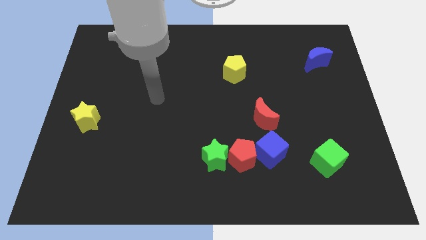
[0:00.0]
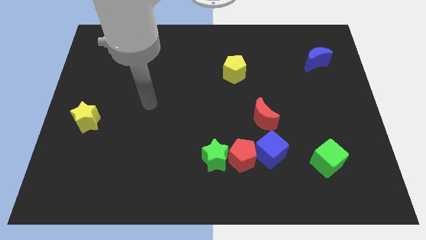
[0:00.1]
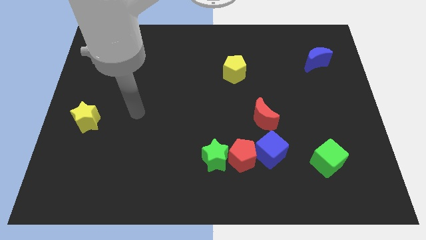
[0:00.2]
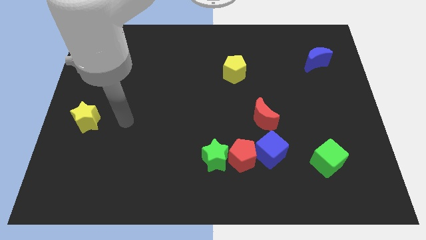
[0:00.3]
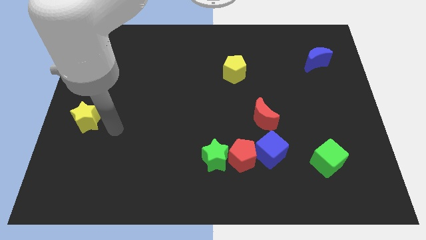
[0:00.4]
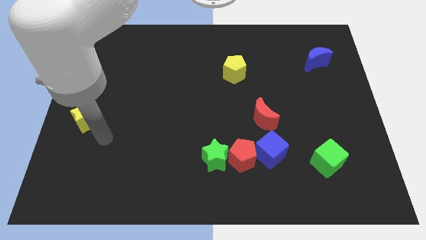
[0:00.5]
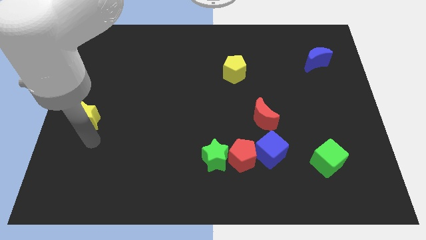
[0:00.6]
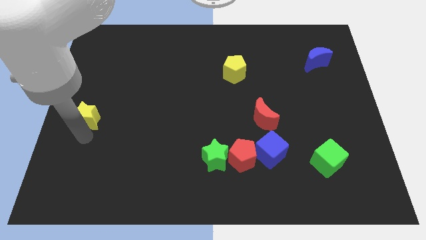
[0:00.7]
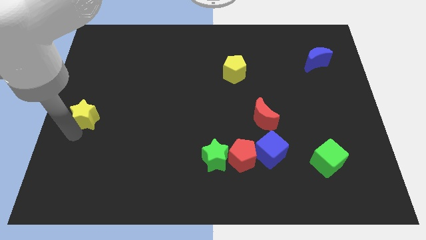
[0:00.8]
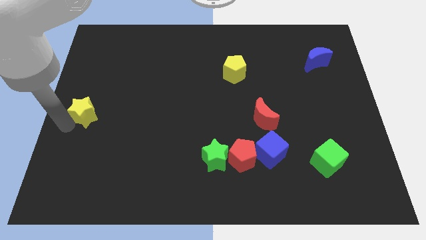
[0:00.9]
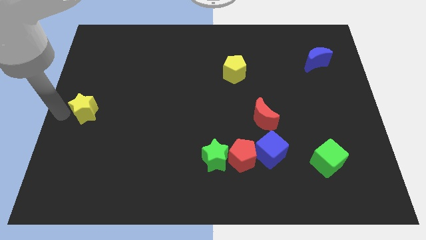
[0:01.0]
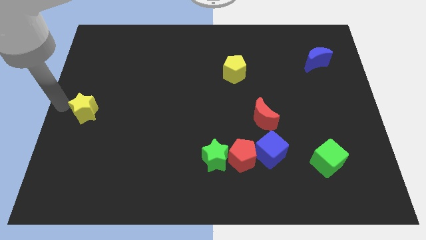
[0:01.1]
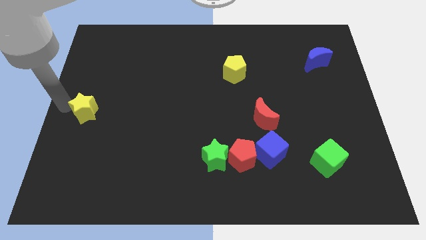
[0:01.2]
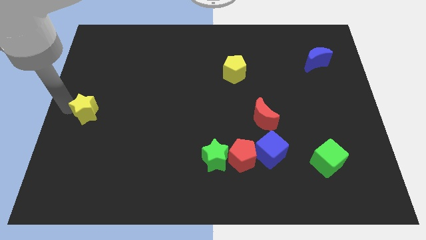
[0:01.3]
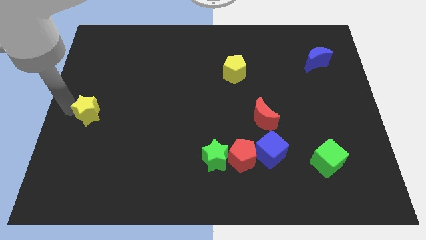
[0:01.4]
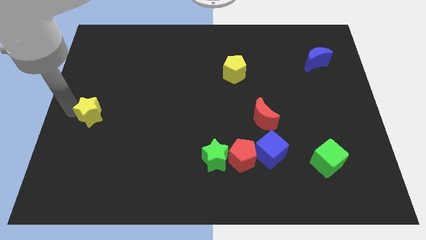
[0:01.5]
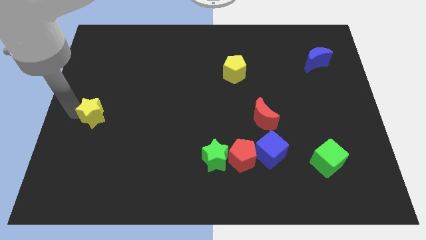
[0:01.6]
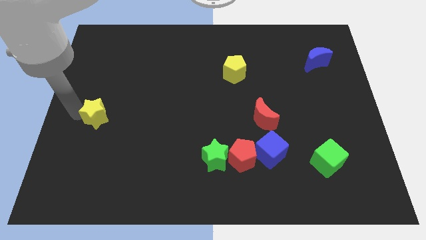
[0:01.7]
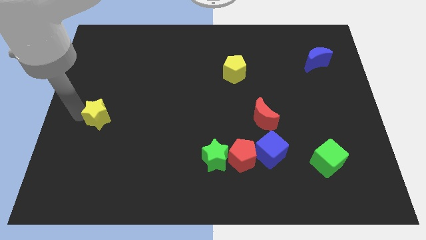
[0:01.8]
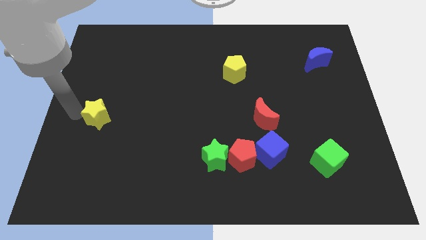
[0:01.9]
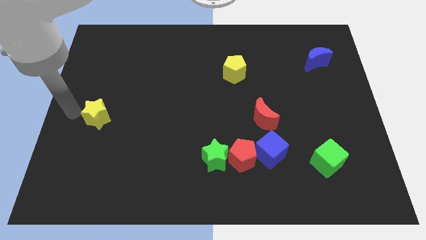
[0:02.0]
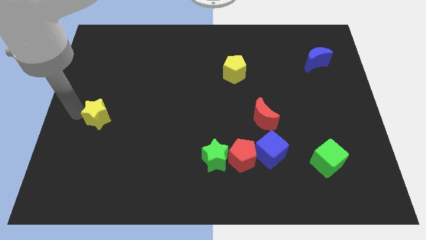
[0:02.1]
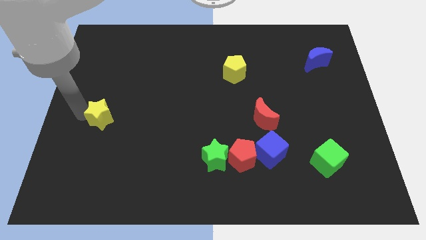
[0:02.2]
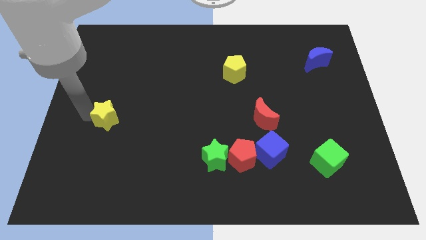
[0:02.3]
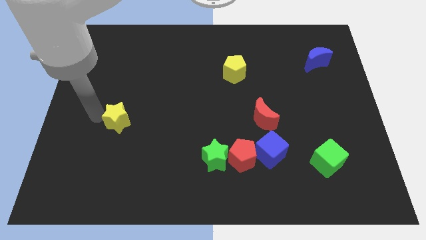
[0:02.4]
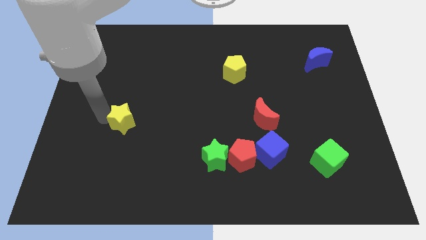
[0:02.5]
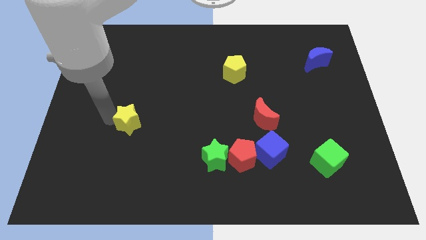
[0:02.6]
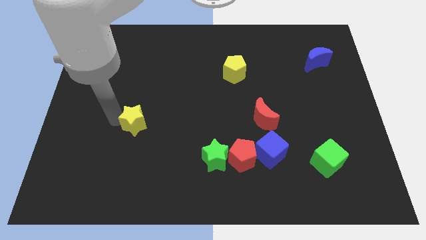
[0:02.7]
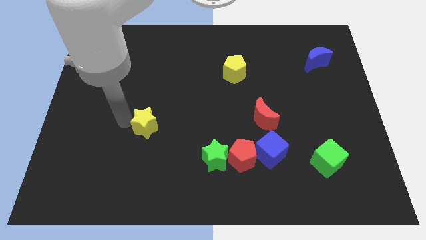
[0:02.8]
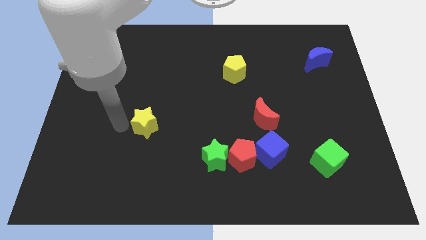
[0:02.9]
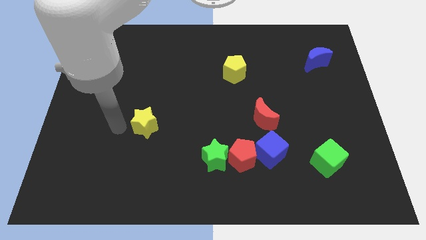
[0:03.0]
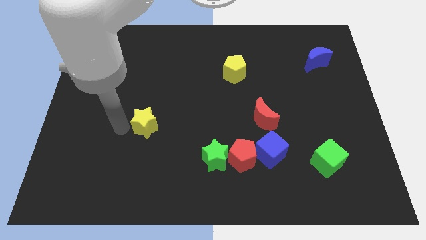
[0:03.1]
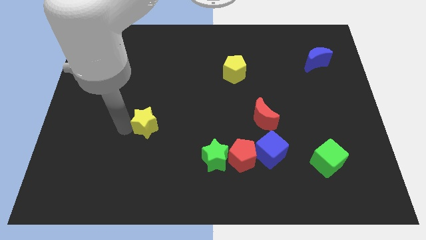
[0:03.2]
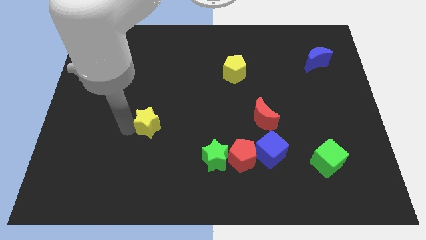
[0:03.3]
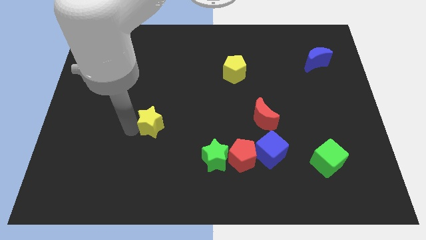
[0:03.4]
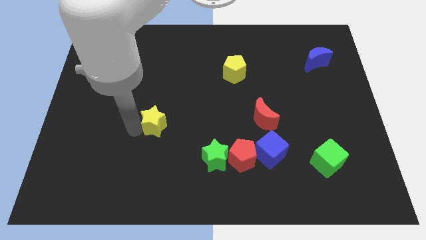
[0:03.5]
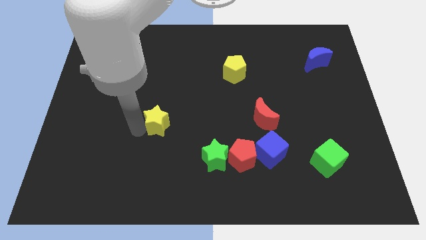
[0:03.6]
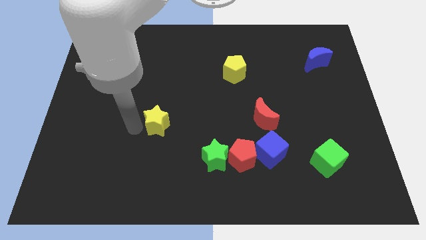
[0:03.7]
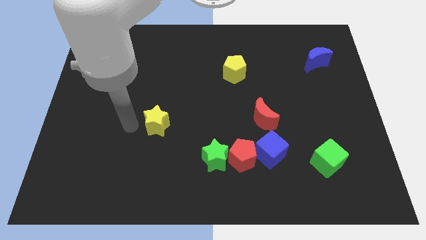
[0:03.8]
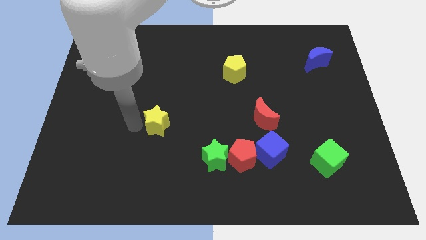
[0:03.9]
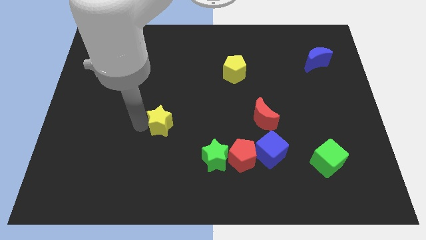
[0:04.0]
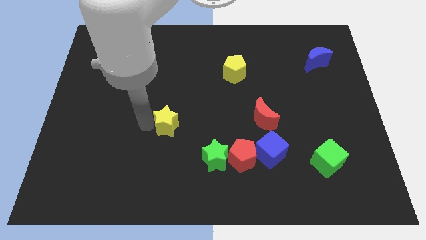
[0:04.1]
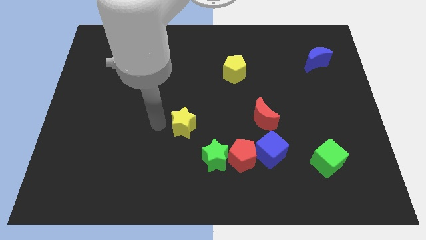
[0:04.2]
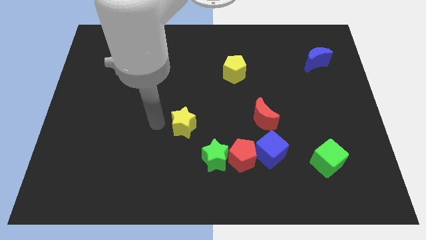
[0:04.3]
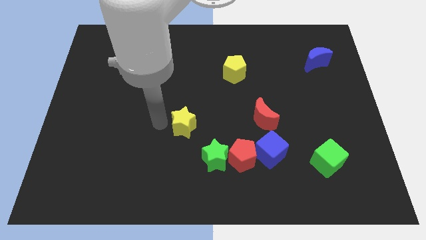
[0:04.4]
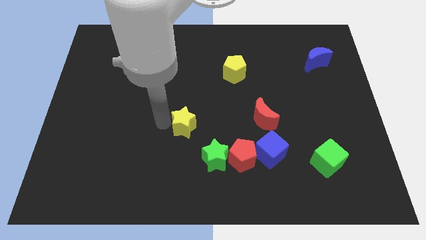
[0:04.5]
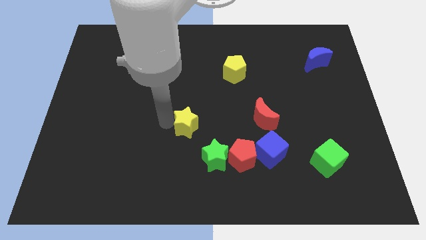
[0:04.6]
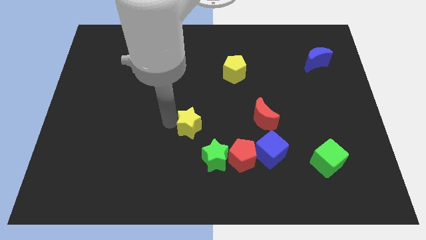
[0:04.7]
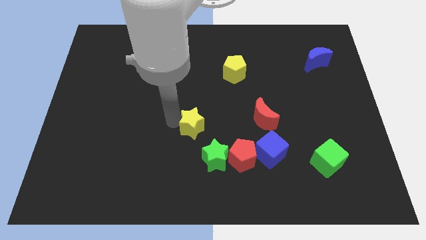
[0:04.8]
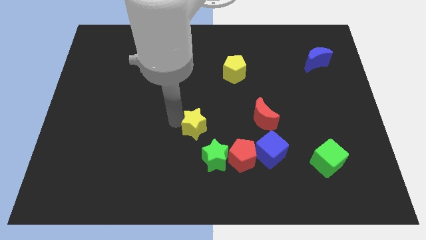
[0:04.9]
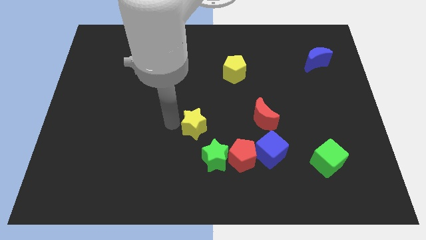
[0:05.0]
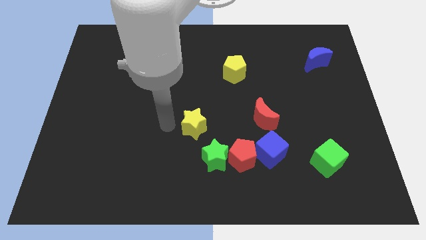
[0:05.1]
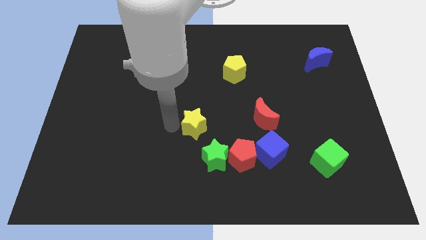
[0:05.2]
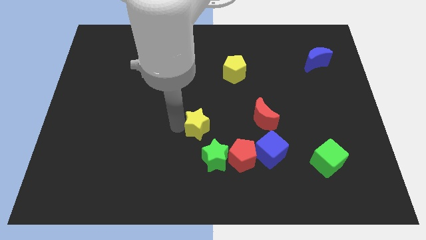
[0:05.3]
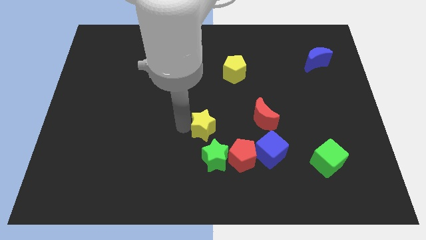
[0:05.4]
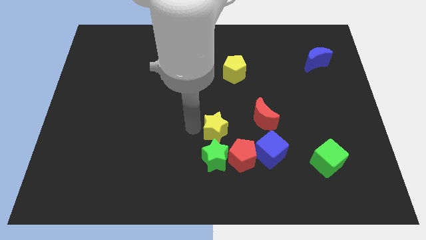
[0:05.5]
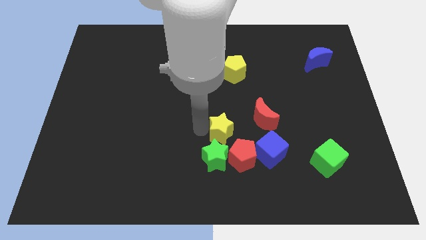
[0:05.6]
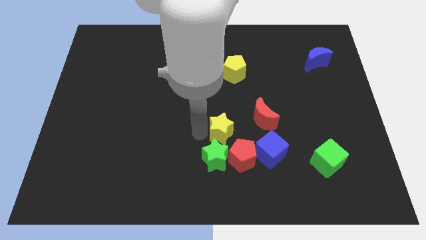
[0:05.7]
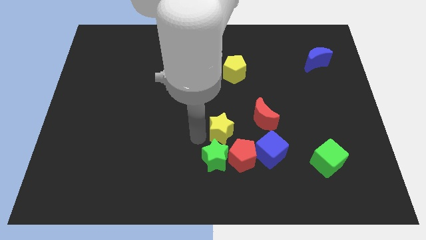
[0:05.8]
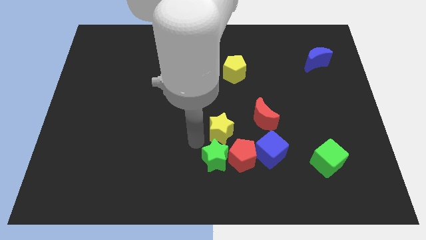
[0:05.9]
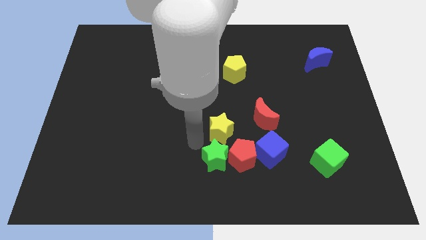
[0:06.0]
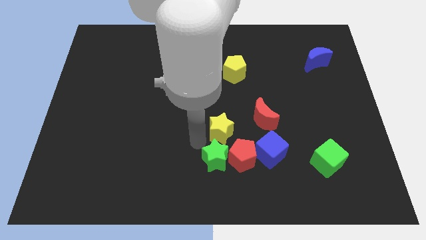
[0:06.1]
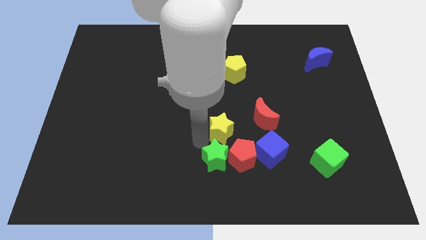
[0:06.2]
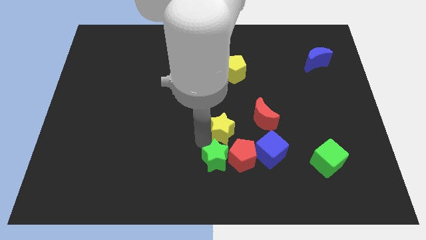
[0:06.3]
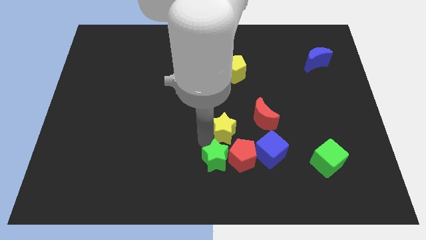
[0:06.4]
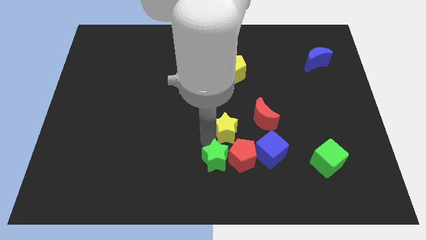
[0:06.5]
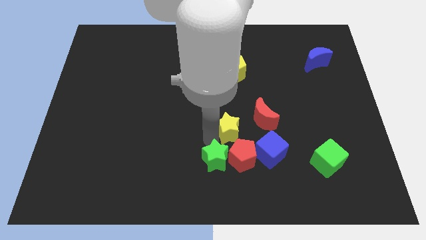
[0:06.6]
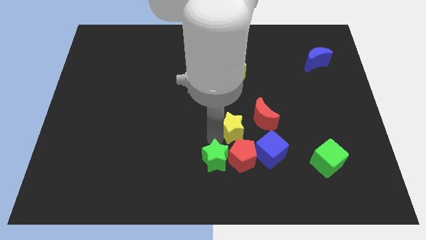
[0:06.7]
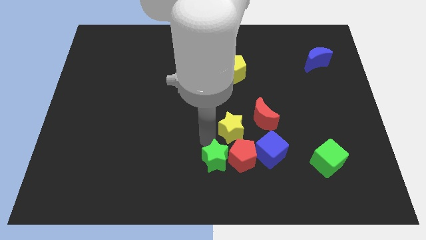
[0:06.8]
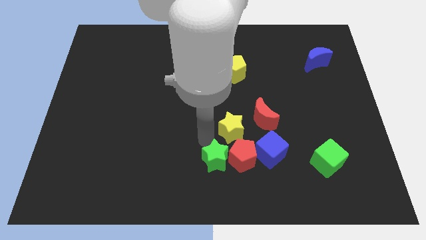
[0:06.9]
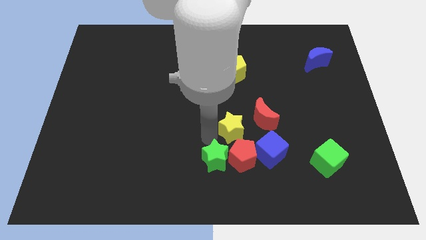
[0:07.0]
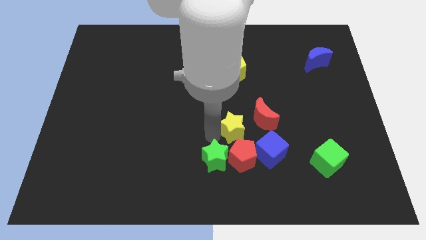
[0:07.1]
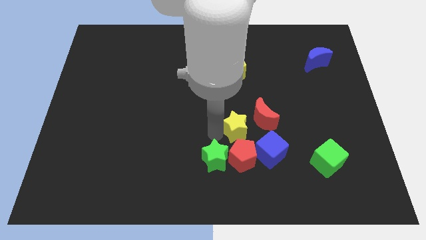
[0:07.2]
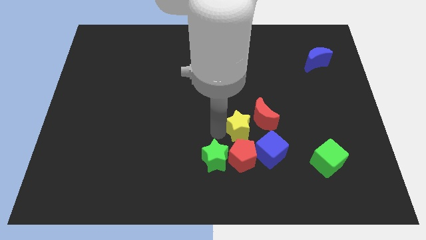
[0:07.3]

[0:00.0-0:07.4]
put the yellow star close to the red moon
